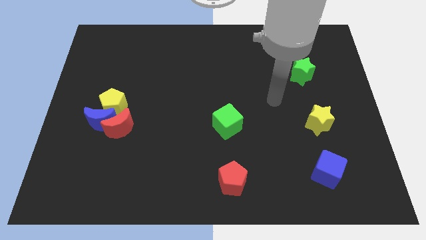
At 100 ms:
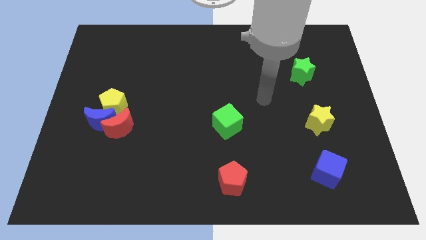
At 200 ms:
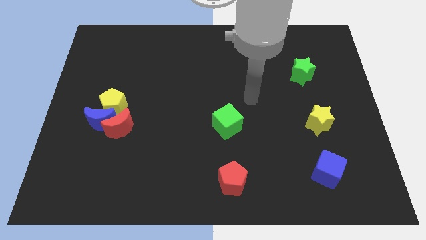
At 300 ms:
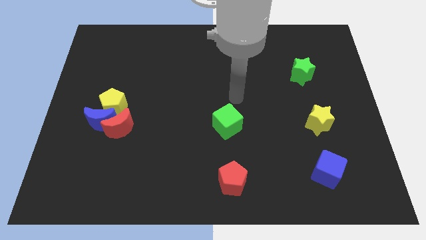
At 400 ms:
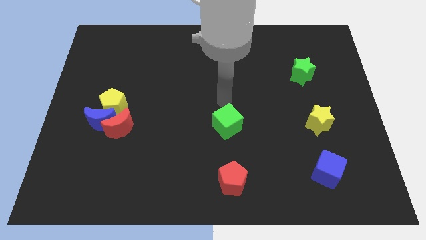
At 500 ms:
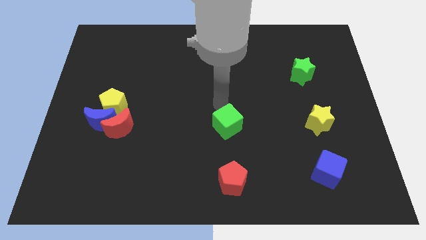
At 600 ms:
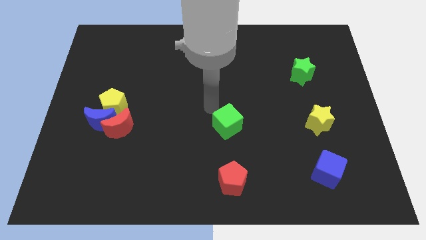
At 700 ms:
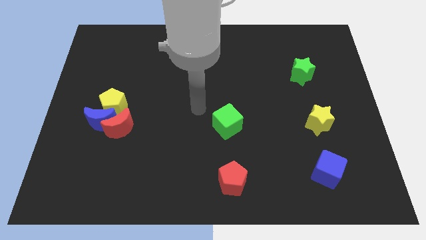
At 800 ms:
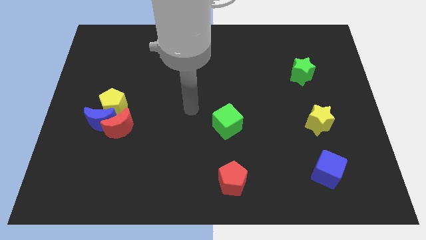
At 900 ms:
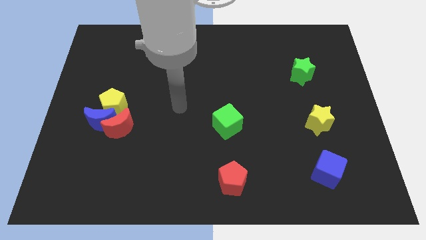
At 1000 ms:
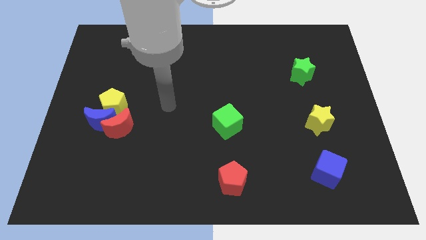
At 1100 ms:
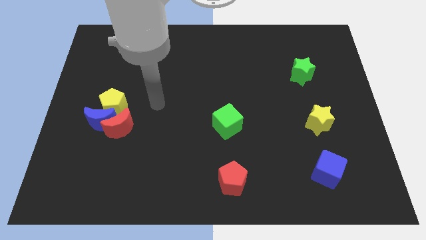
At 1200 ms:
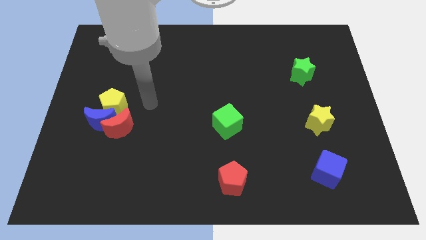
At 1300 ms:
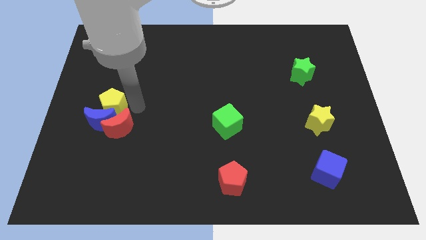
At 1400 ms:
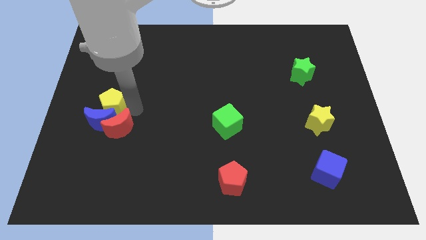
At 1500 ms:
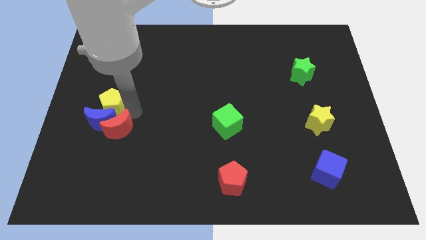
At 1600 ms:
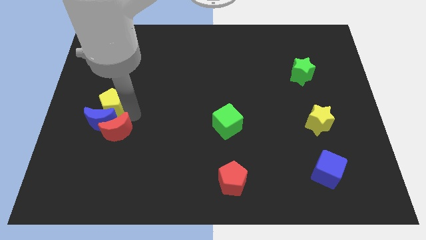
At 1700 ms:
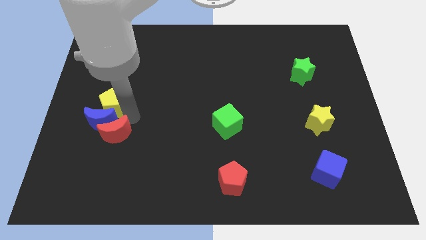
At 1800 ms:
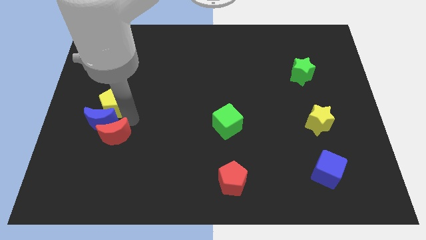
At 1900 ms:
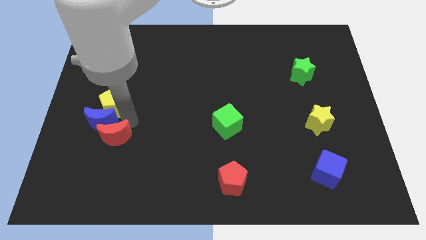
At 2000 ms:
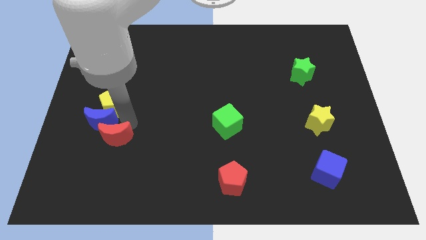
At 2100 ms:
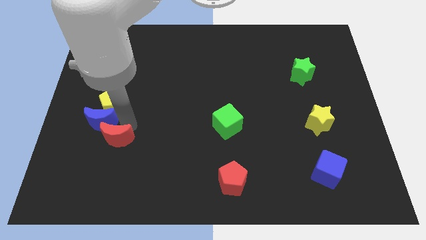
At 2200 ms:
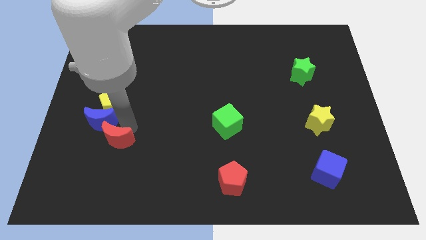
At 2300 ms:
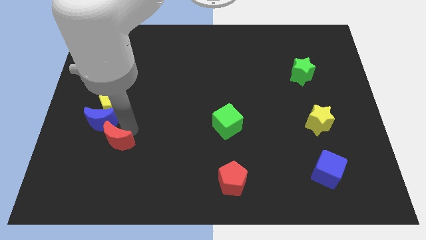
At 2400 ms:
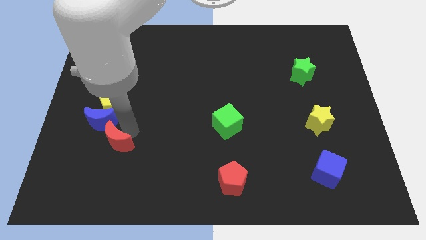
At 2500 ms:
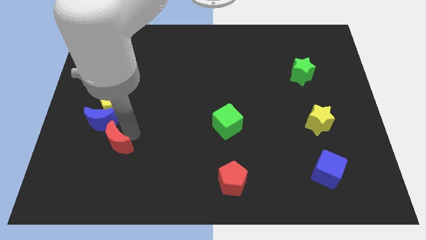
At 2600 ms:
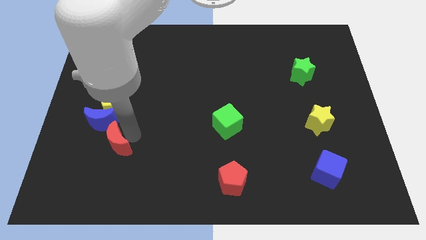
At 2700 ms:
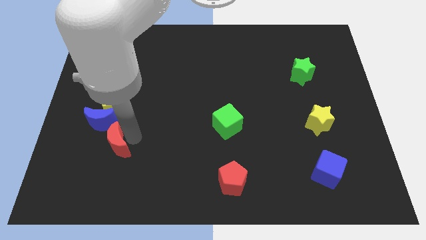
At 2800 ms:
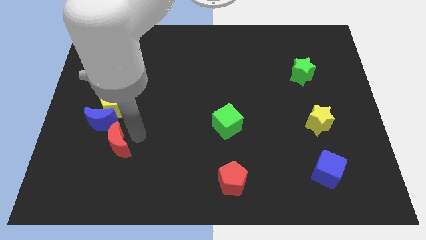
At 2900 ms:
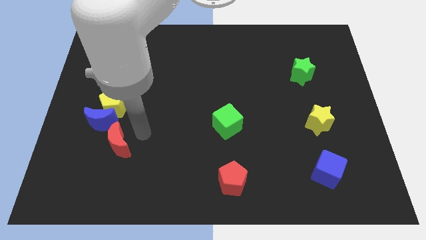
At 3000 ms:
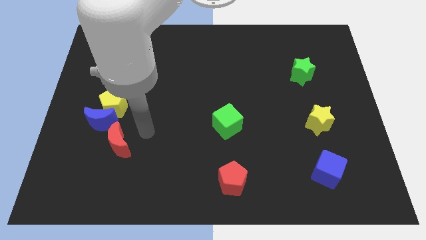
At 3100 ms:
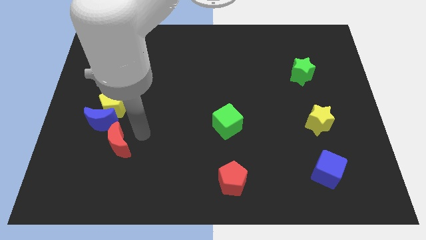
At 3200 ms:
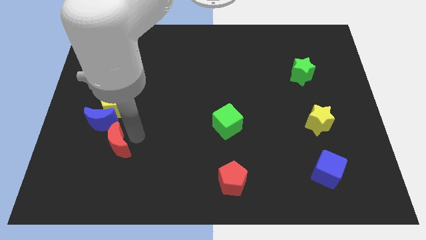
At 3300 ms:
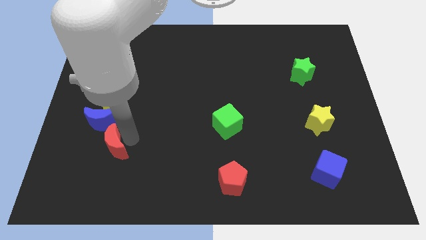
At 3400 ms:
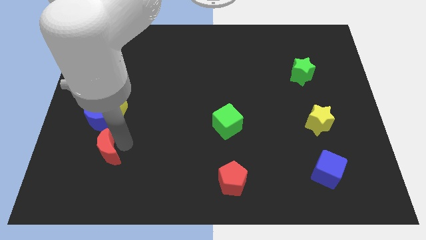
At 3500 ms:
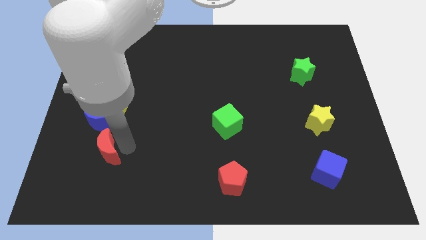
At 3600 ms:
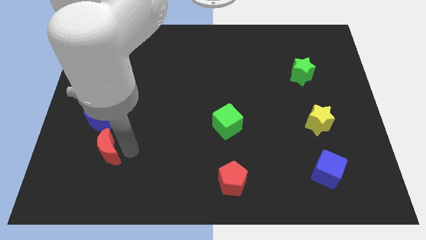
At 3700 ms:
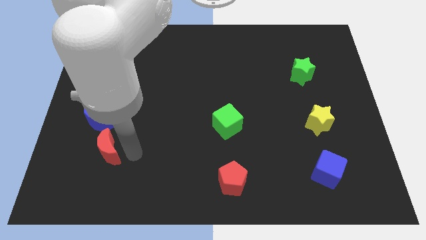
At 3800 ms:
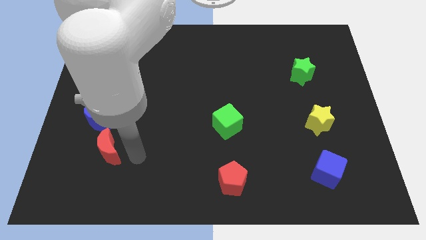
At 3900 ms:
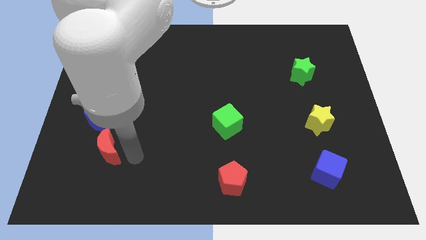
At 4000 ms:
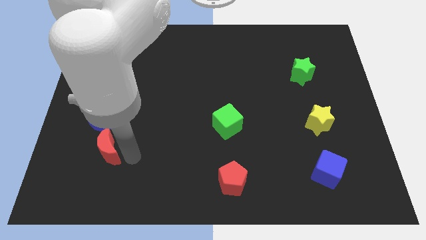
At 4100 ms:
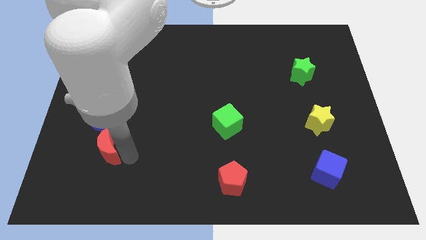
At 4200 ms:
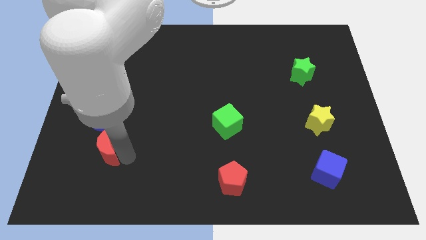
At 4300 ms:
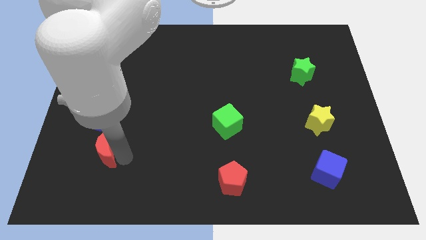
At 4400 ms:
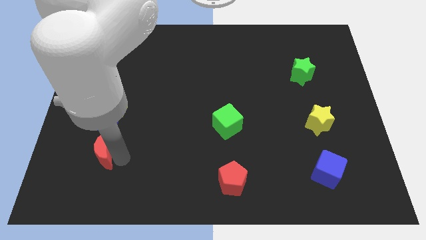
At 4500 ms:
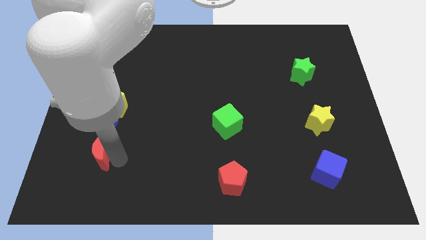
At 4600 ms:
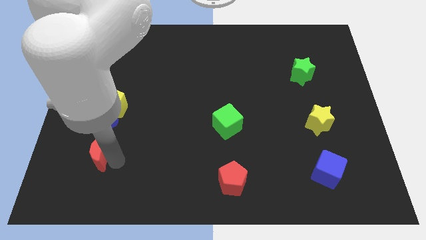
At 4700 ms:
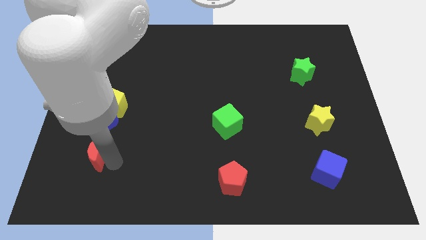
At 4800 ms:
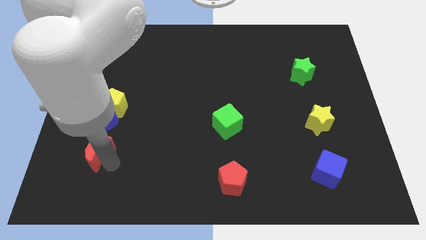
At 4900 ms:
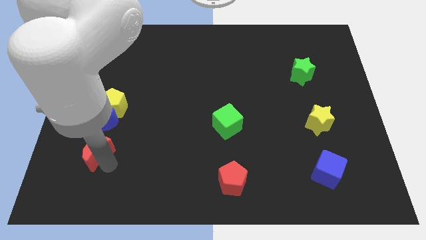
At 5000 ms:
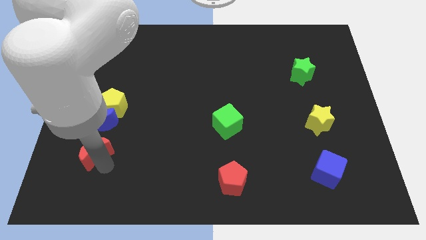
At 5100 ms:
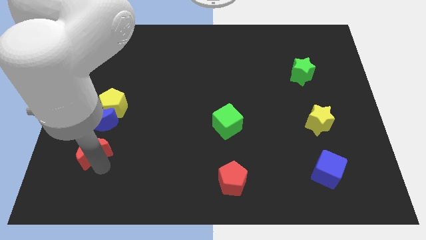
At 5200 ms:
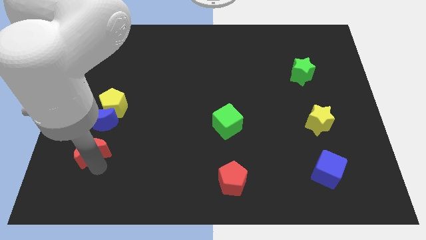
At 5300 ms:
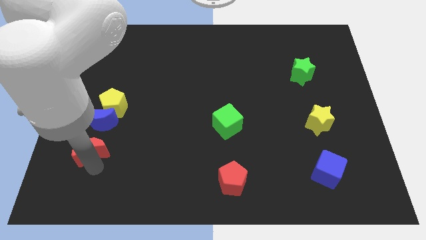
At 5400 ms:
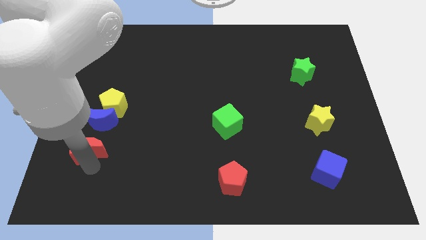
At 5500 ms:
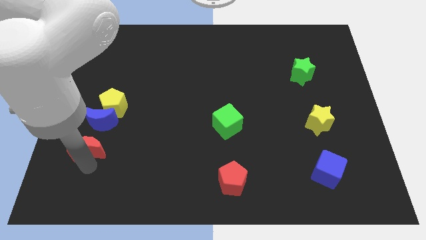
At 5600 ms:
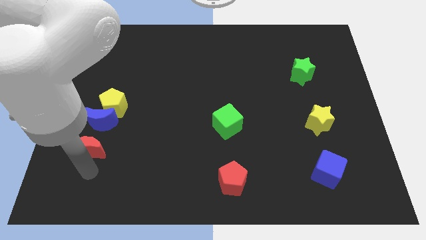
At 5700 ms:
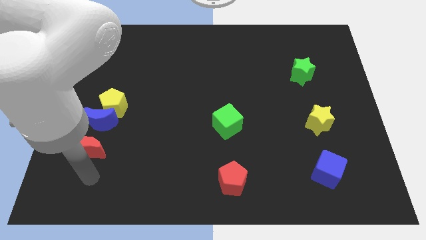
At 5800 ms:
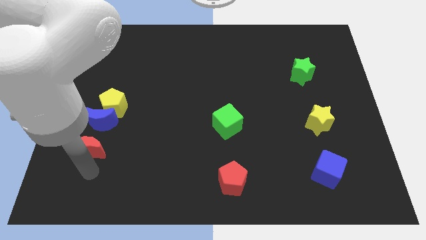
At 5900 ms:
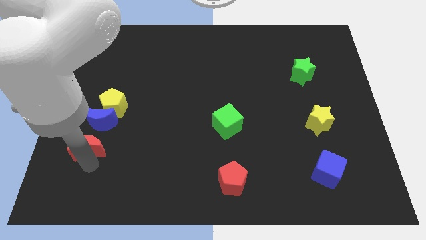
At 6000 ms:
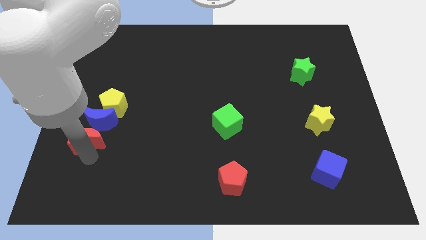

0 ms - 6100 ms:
push the red moon diagonally down and to the left of the yellow pentagon

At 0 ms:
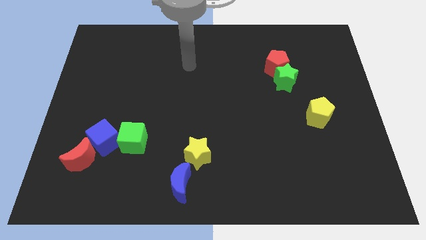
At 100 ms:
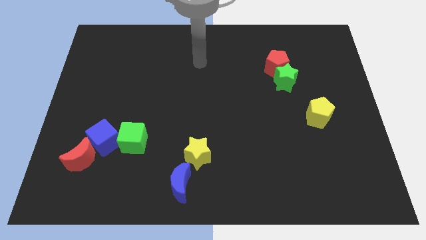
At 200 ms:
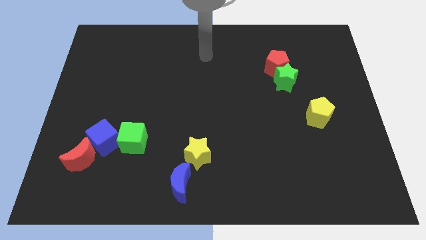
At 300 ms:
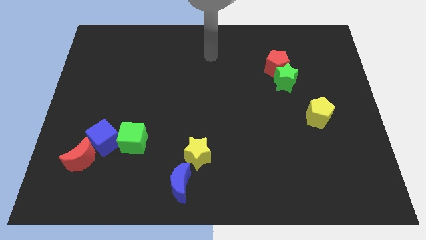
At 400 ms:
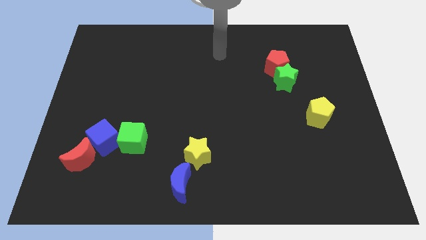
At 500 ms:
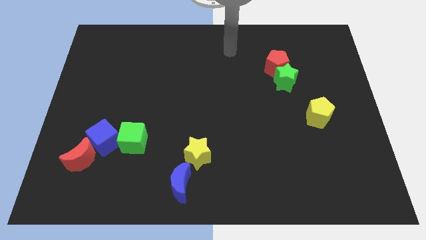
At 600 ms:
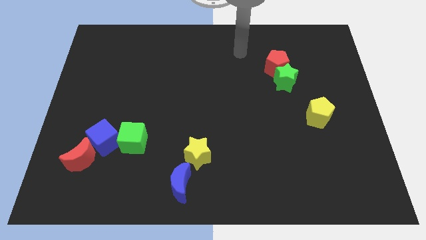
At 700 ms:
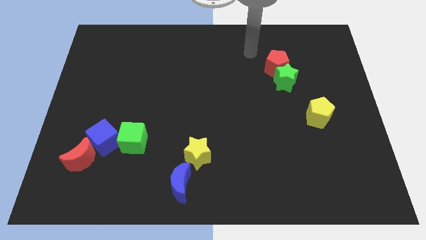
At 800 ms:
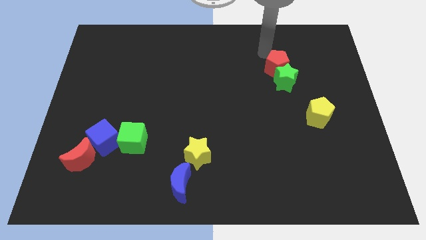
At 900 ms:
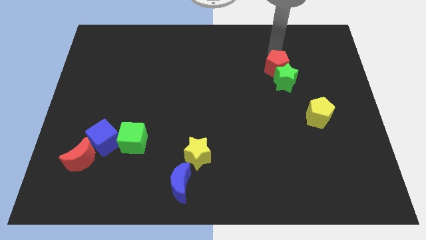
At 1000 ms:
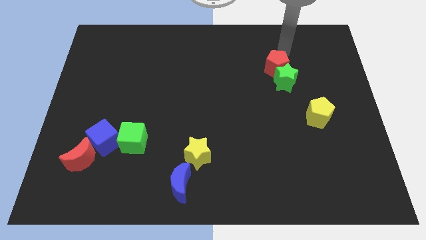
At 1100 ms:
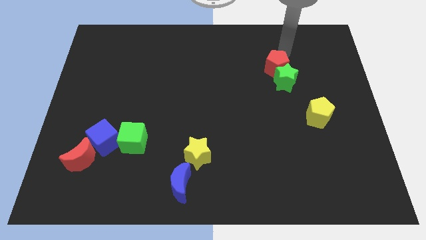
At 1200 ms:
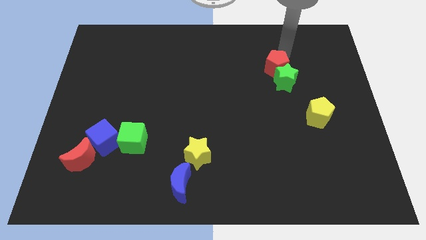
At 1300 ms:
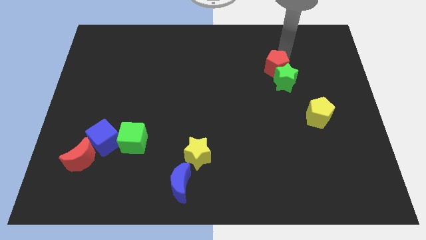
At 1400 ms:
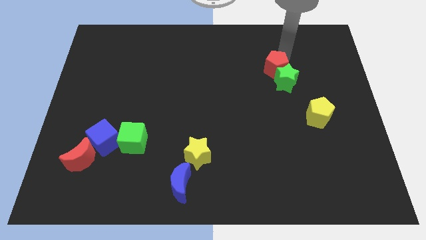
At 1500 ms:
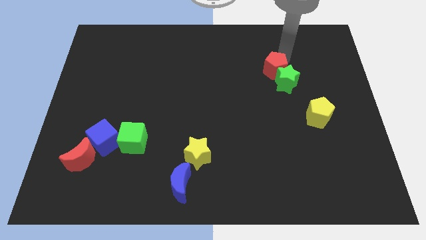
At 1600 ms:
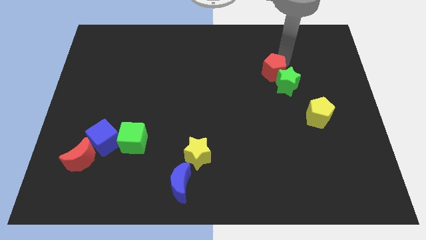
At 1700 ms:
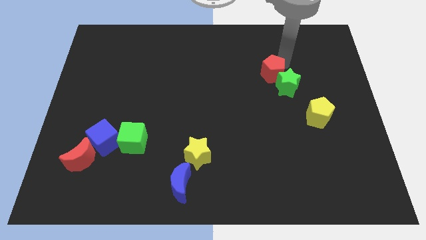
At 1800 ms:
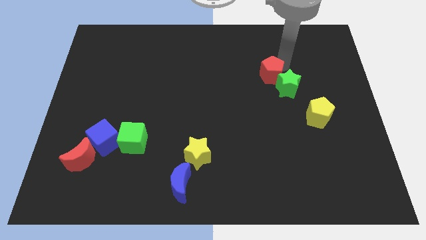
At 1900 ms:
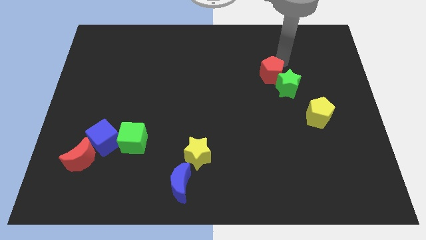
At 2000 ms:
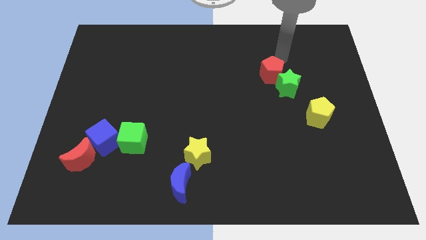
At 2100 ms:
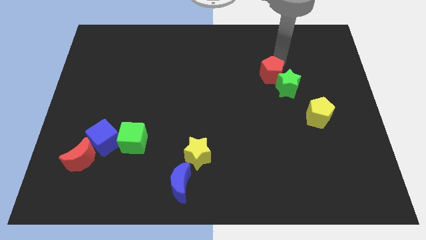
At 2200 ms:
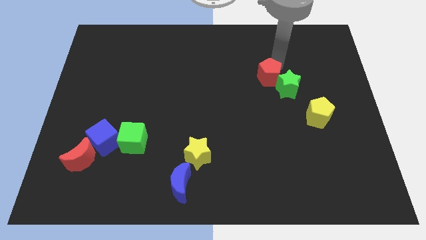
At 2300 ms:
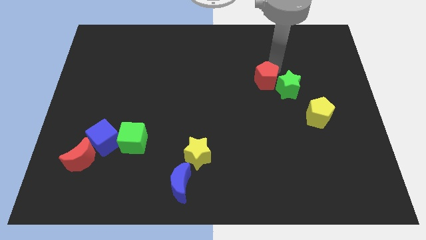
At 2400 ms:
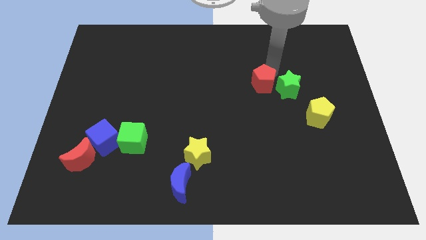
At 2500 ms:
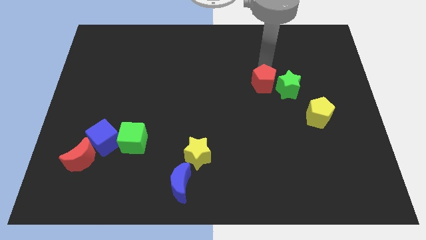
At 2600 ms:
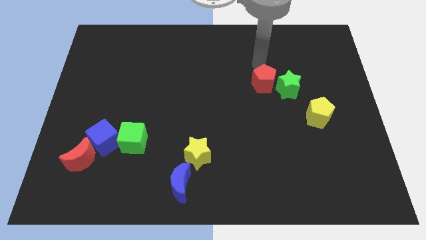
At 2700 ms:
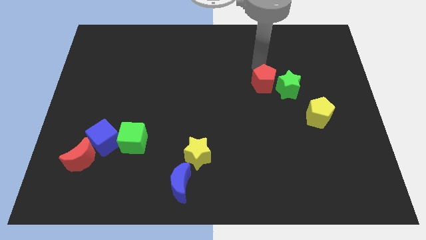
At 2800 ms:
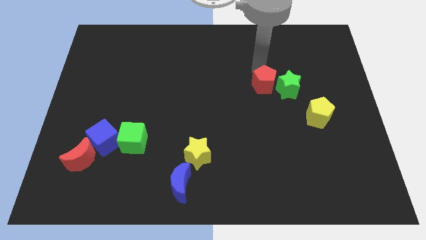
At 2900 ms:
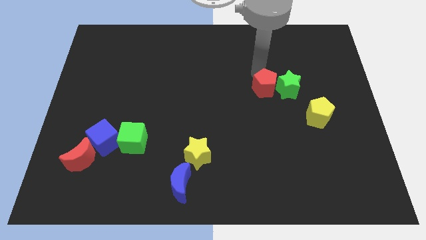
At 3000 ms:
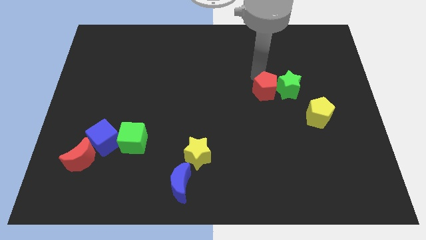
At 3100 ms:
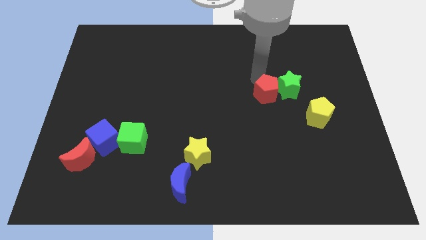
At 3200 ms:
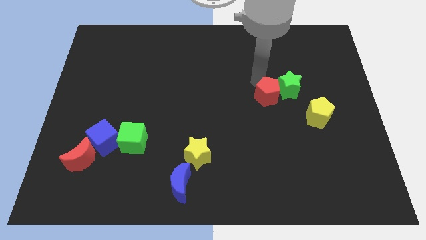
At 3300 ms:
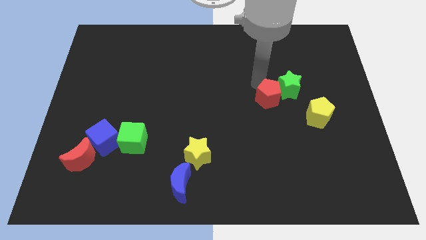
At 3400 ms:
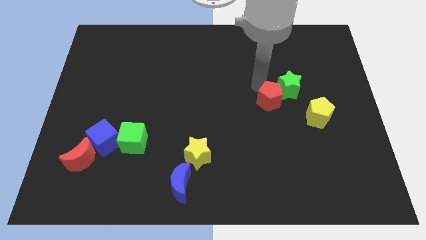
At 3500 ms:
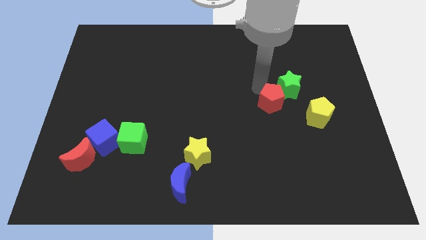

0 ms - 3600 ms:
slide the red pentagon to the left of the yellow pentagon
